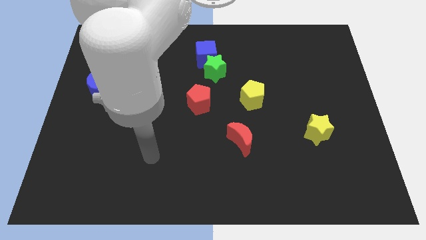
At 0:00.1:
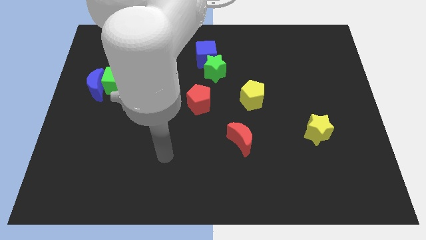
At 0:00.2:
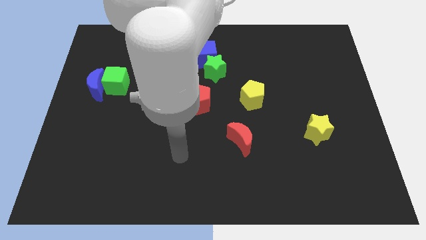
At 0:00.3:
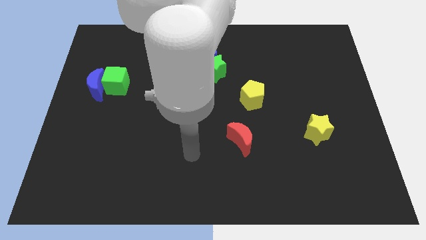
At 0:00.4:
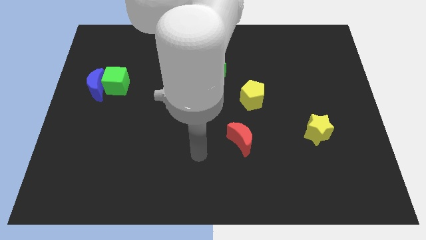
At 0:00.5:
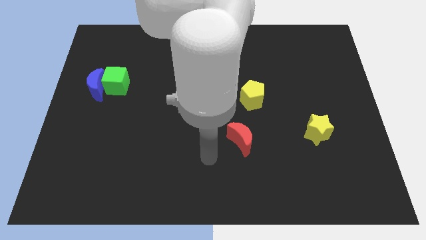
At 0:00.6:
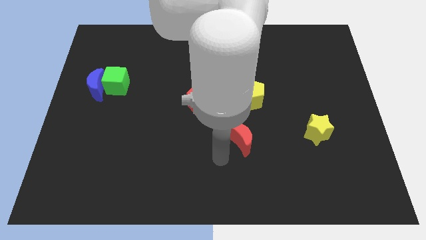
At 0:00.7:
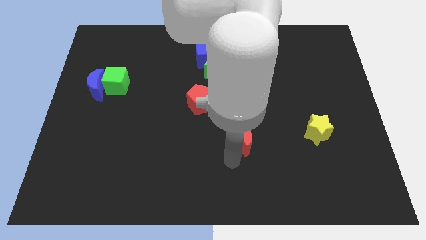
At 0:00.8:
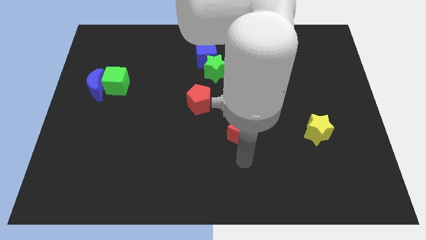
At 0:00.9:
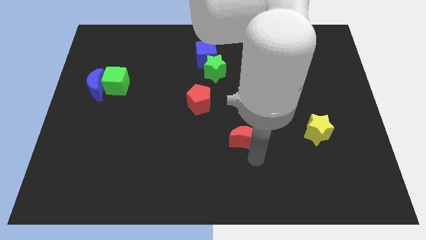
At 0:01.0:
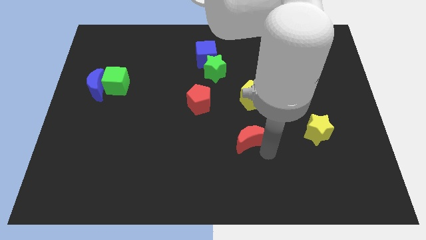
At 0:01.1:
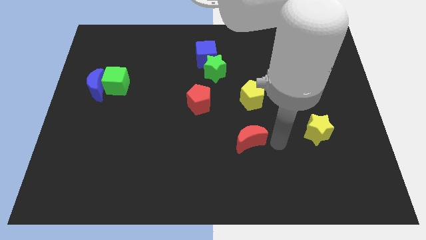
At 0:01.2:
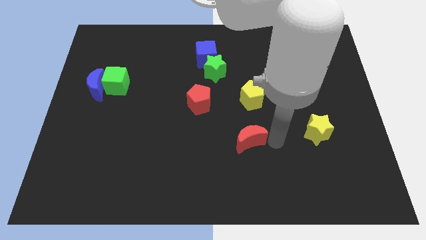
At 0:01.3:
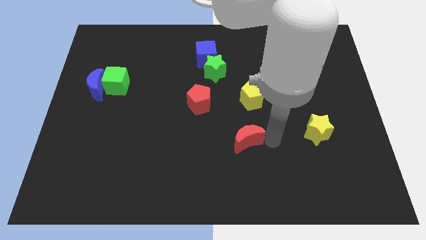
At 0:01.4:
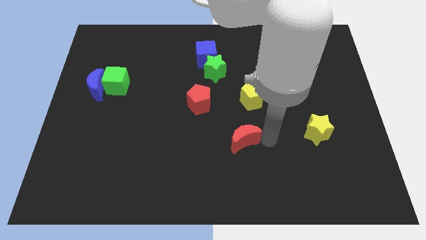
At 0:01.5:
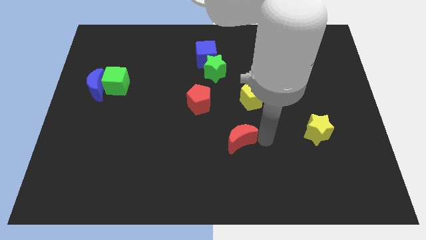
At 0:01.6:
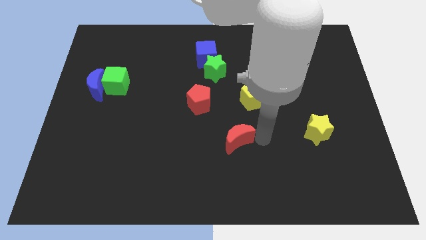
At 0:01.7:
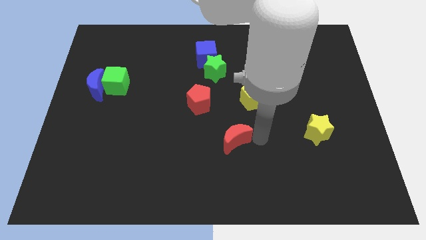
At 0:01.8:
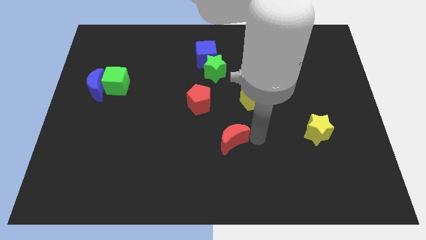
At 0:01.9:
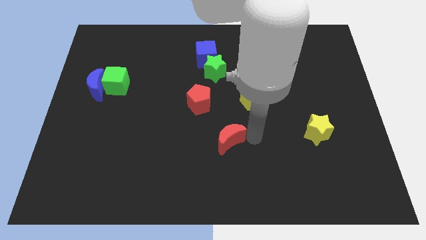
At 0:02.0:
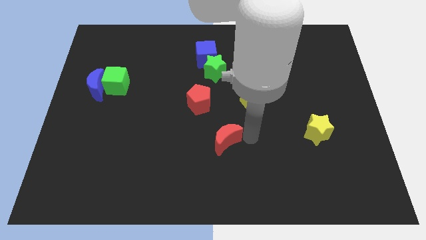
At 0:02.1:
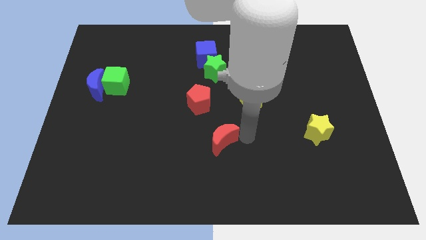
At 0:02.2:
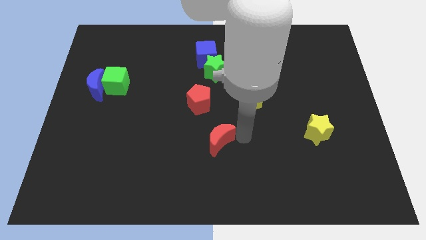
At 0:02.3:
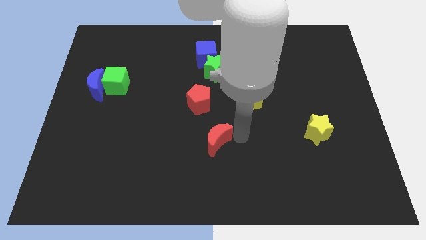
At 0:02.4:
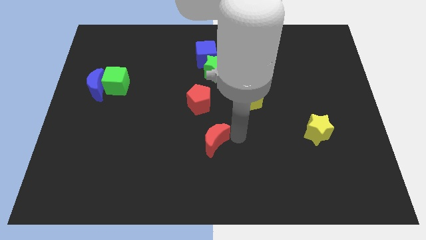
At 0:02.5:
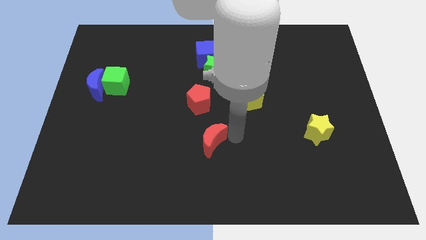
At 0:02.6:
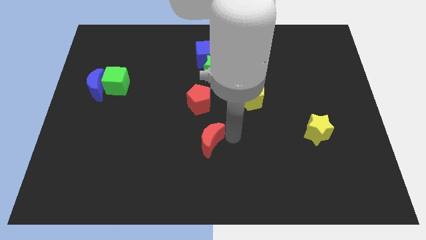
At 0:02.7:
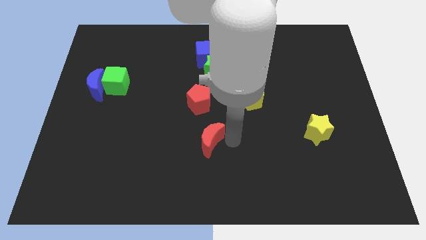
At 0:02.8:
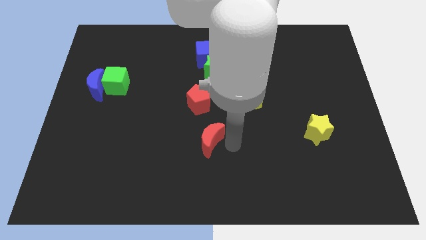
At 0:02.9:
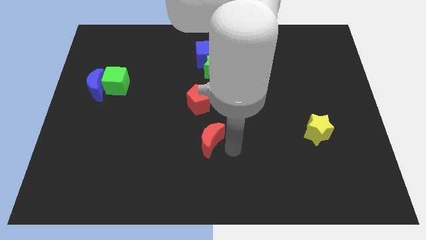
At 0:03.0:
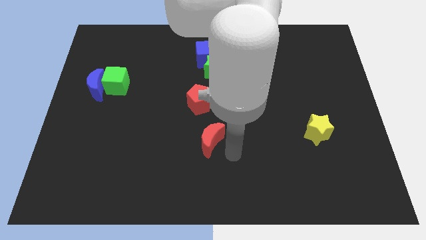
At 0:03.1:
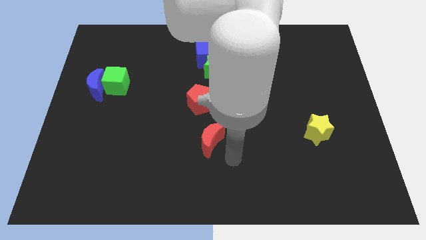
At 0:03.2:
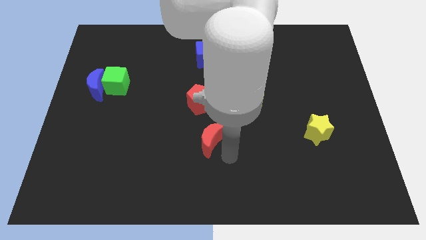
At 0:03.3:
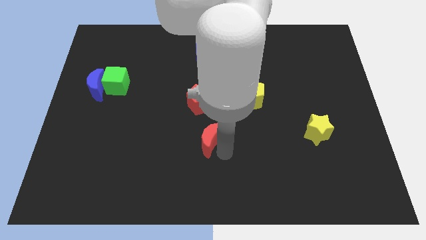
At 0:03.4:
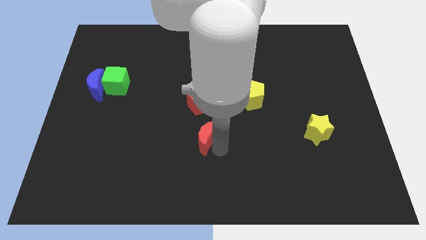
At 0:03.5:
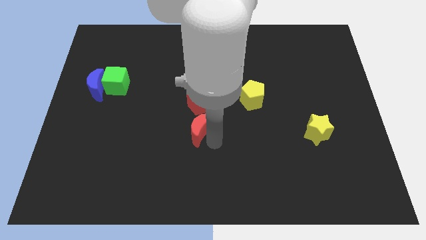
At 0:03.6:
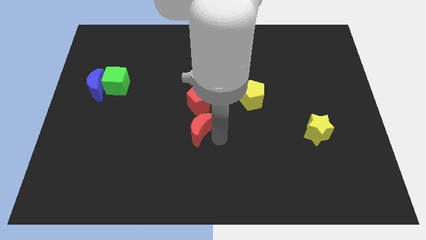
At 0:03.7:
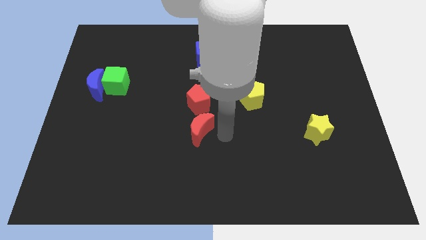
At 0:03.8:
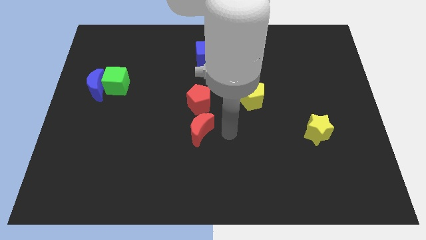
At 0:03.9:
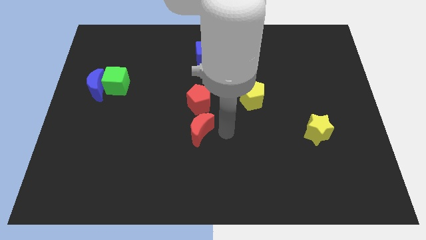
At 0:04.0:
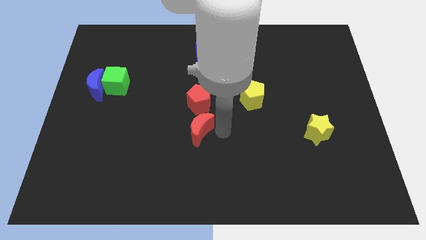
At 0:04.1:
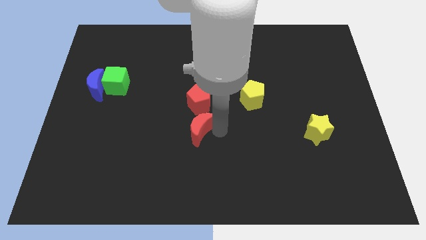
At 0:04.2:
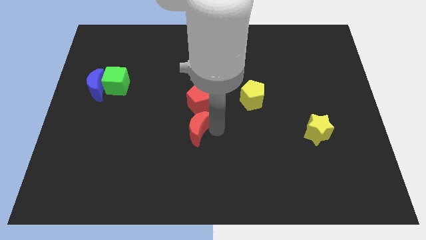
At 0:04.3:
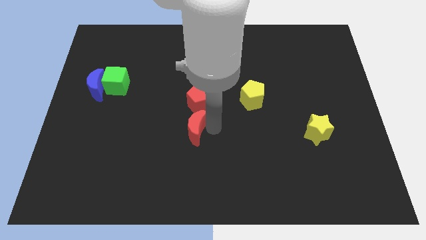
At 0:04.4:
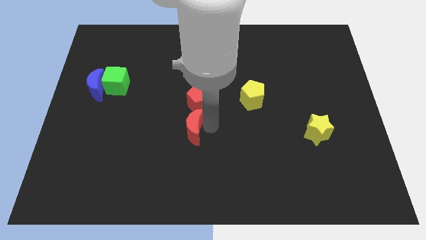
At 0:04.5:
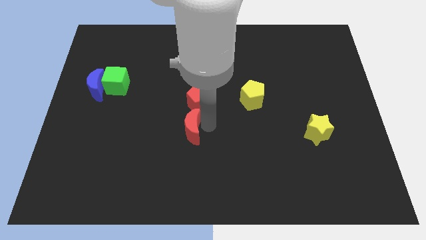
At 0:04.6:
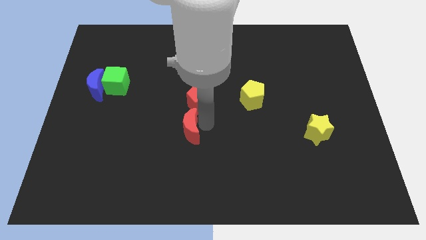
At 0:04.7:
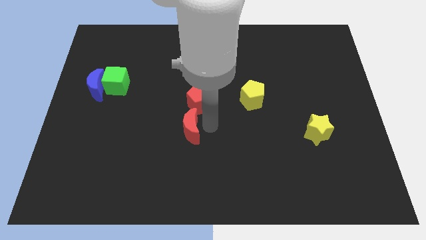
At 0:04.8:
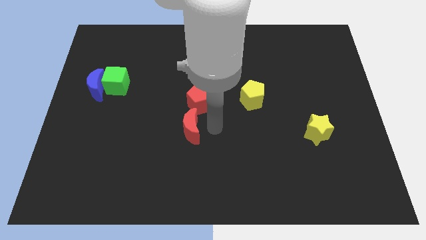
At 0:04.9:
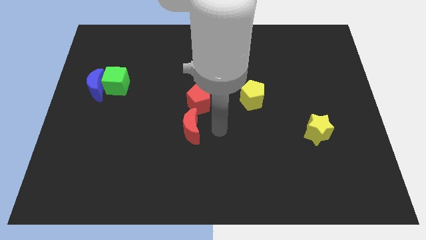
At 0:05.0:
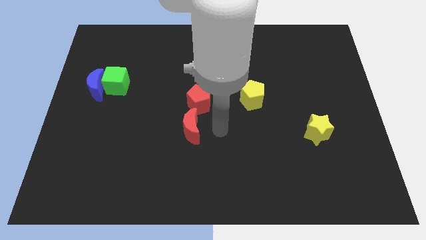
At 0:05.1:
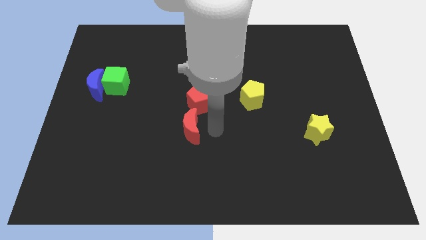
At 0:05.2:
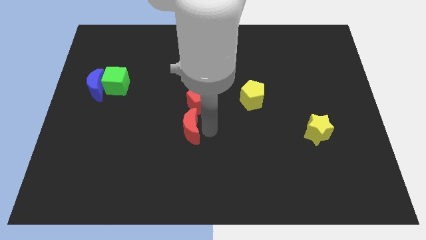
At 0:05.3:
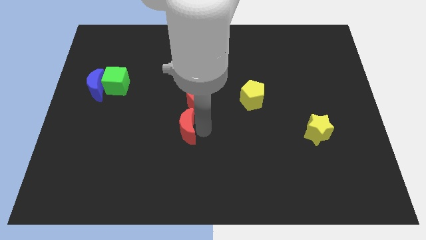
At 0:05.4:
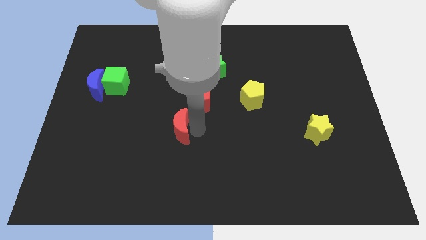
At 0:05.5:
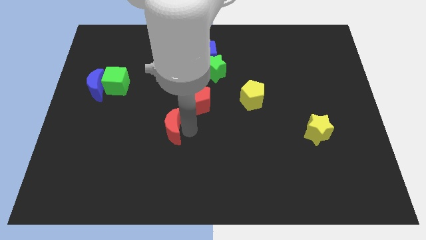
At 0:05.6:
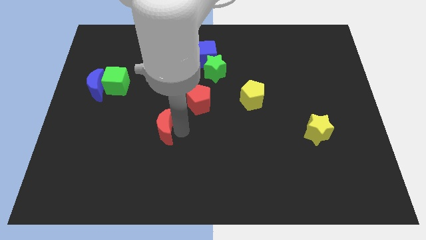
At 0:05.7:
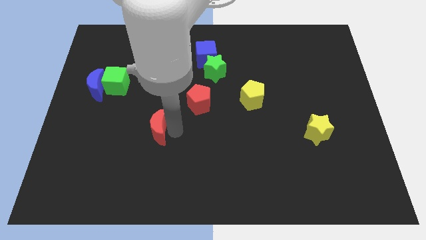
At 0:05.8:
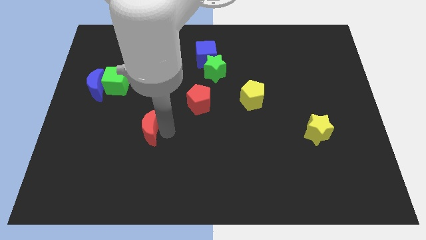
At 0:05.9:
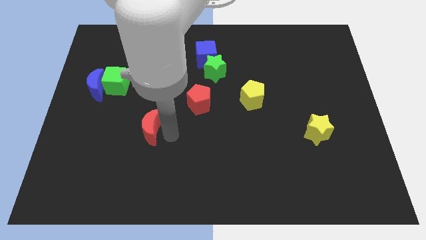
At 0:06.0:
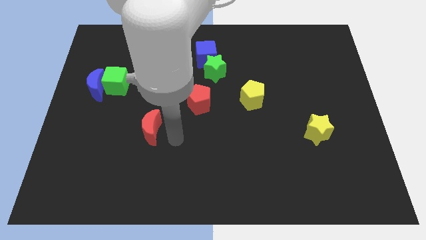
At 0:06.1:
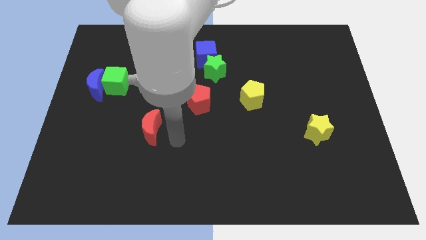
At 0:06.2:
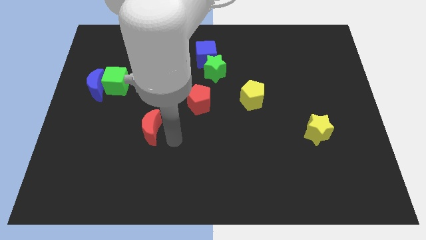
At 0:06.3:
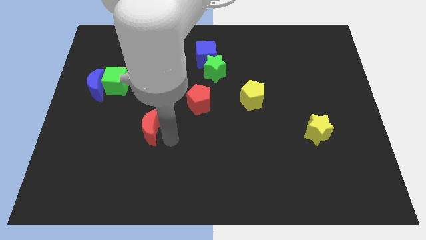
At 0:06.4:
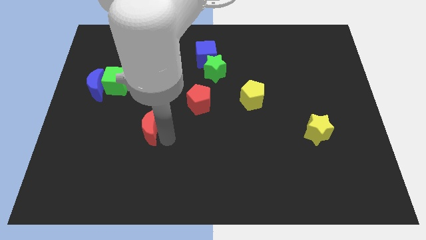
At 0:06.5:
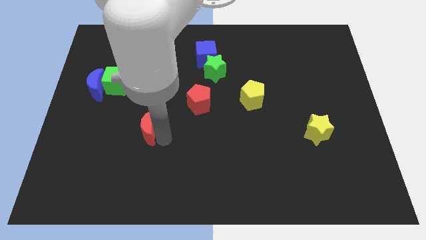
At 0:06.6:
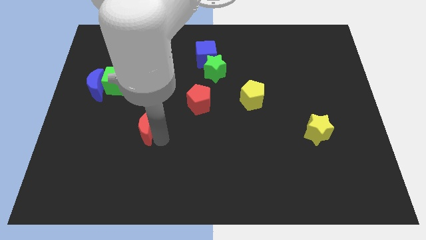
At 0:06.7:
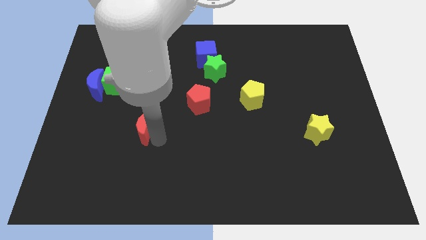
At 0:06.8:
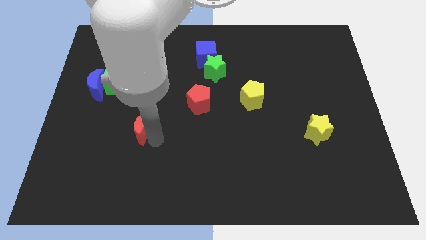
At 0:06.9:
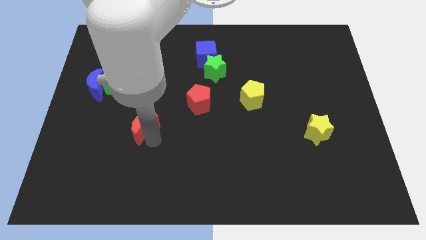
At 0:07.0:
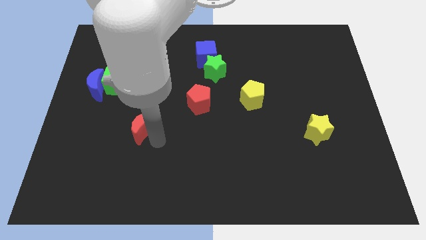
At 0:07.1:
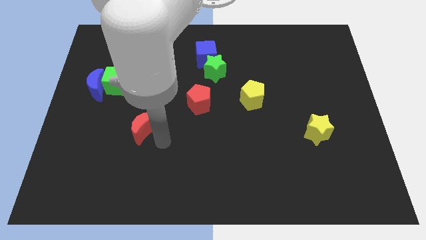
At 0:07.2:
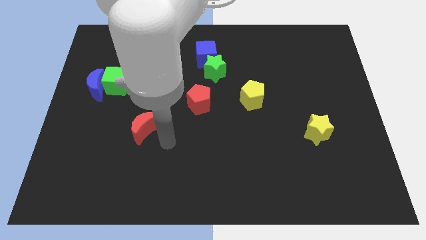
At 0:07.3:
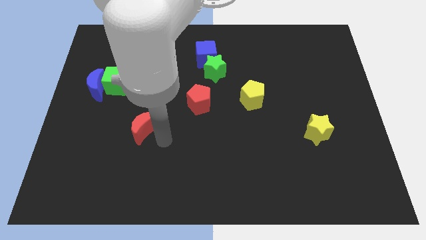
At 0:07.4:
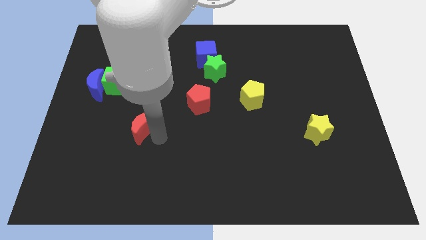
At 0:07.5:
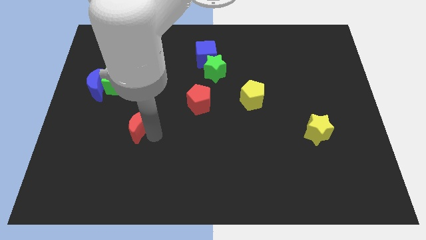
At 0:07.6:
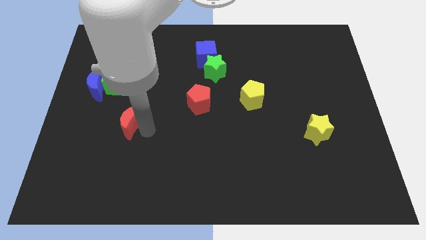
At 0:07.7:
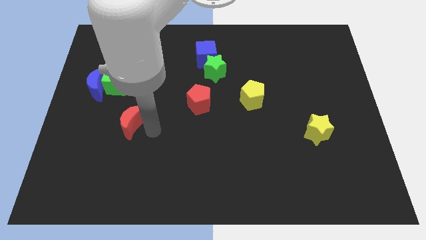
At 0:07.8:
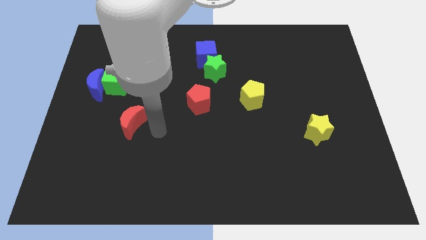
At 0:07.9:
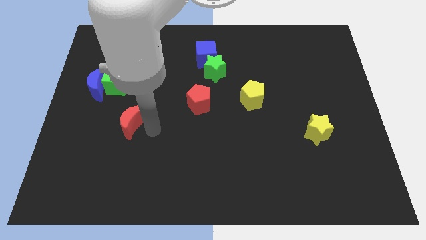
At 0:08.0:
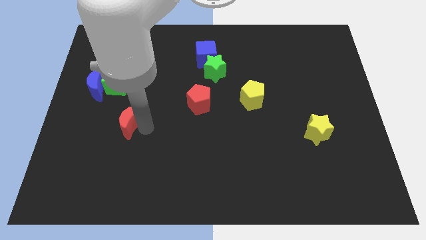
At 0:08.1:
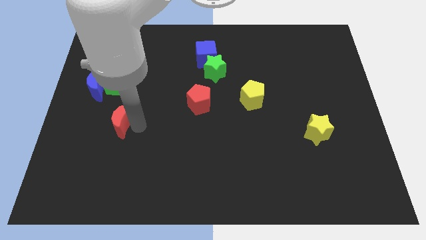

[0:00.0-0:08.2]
move the red moon to the bottom of the green cube
